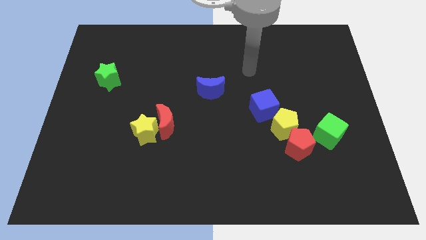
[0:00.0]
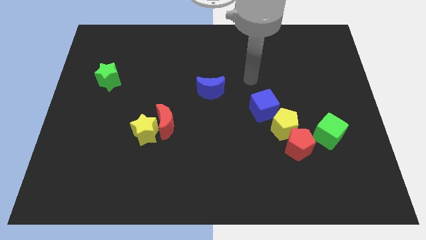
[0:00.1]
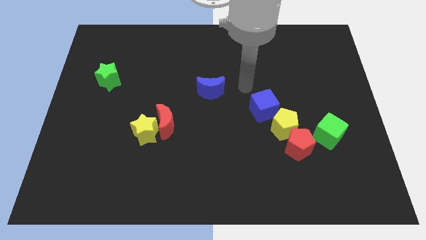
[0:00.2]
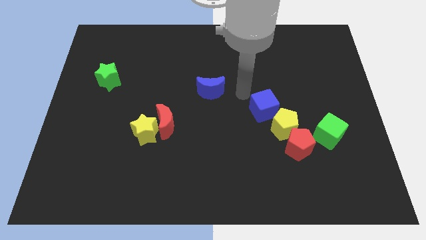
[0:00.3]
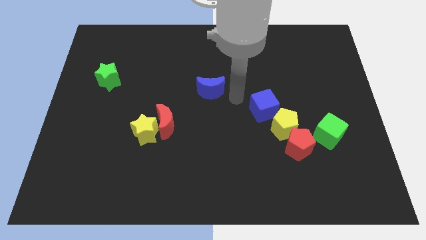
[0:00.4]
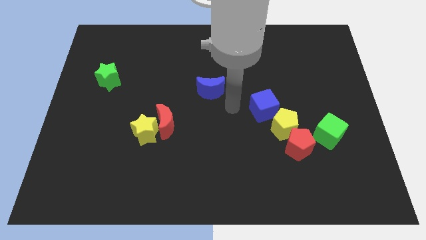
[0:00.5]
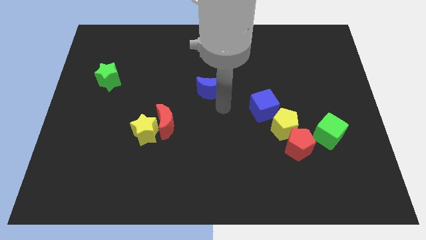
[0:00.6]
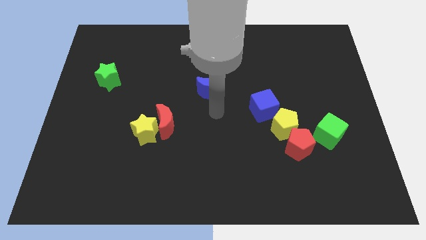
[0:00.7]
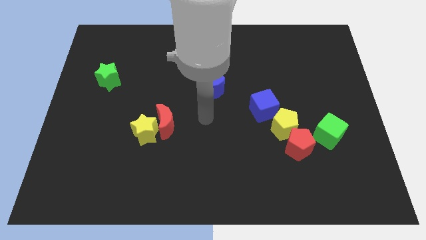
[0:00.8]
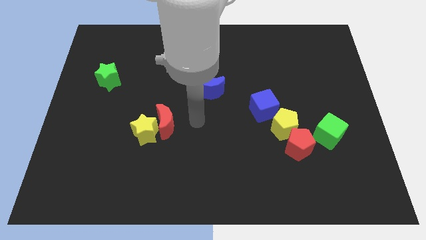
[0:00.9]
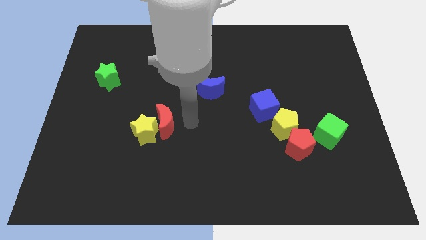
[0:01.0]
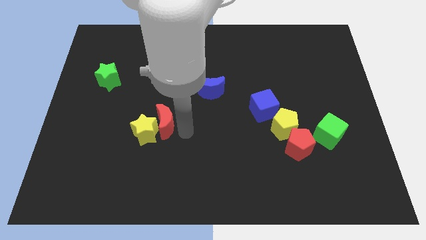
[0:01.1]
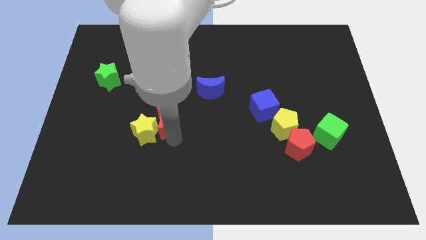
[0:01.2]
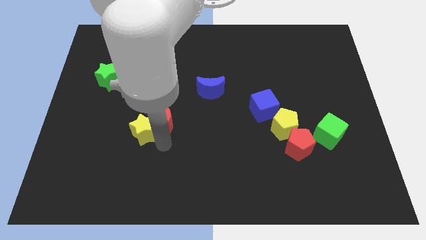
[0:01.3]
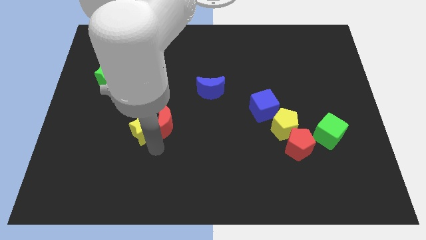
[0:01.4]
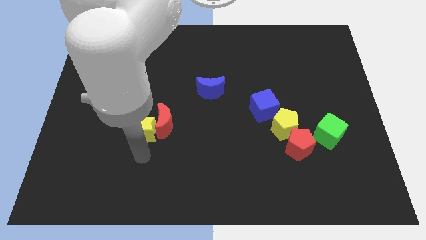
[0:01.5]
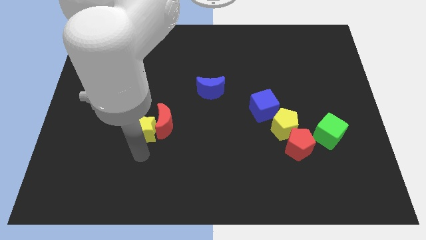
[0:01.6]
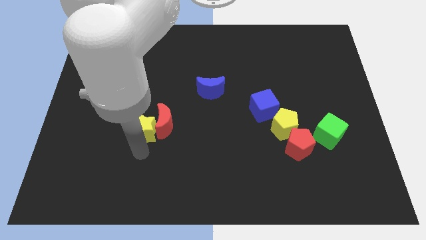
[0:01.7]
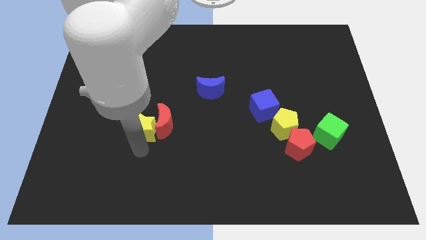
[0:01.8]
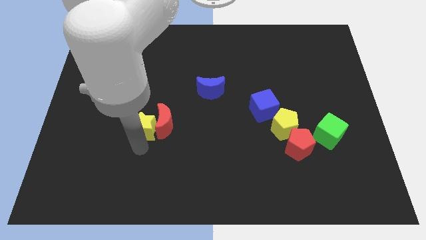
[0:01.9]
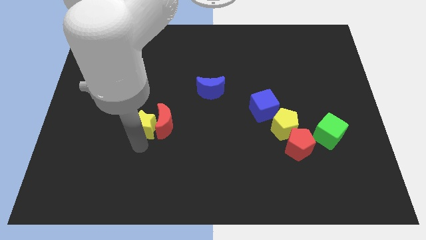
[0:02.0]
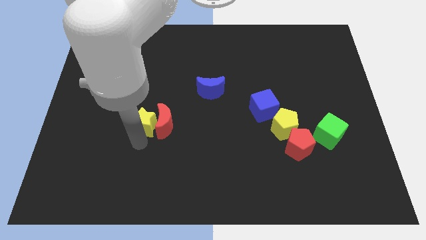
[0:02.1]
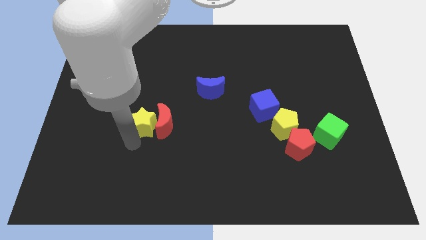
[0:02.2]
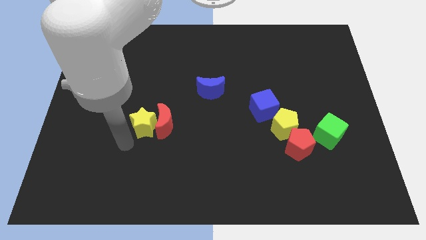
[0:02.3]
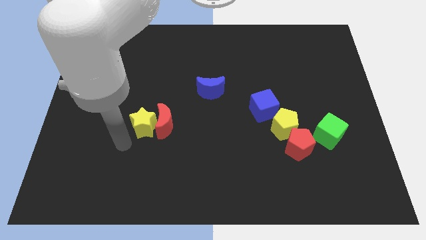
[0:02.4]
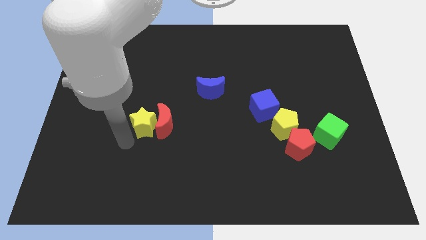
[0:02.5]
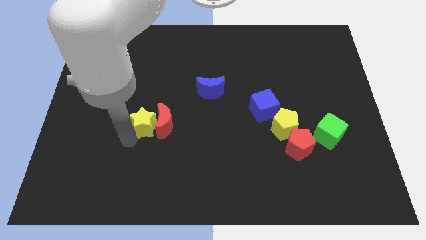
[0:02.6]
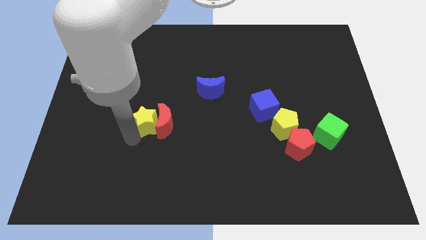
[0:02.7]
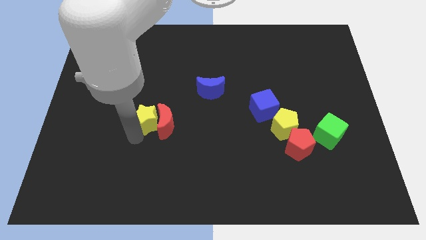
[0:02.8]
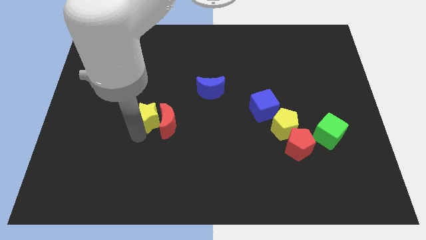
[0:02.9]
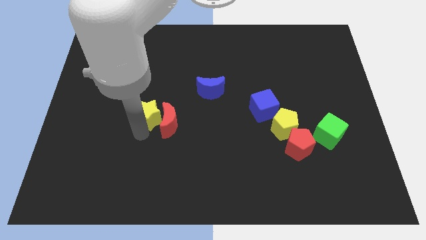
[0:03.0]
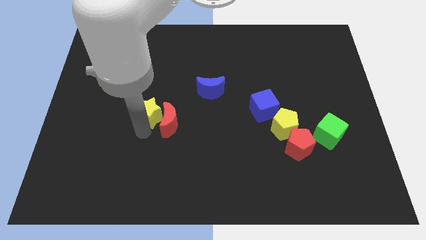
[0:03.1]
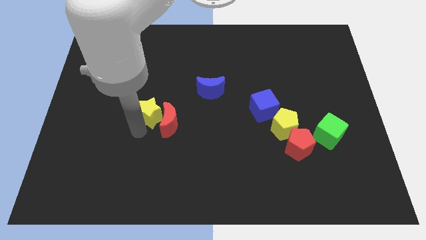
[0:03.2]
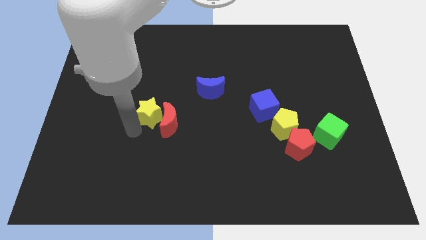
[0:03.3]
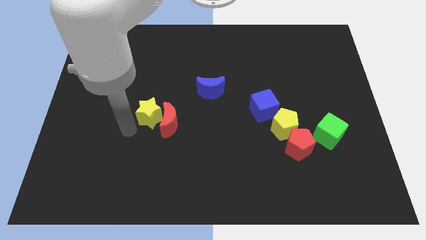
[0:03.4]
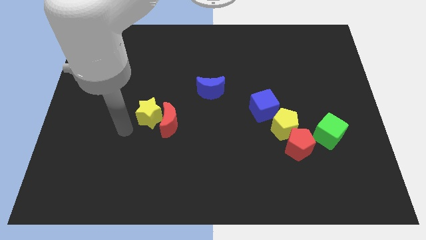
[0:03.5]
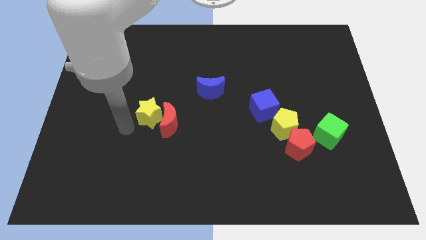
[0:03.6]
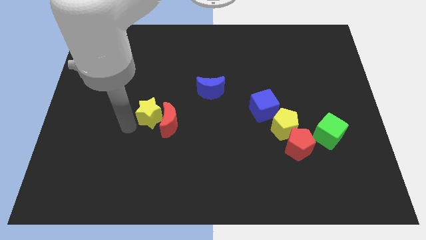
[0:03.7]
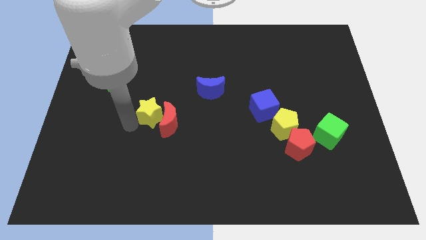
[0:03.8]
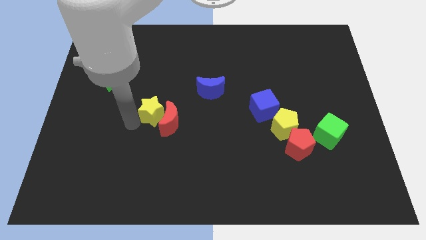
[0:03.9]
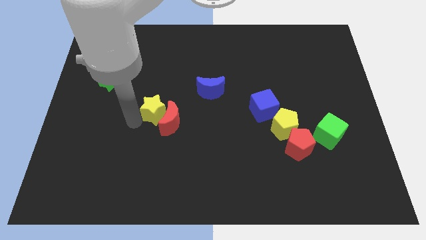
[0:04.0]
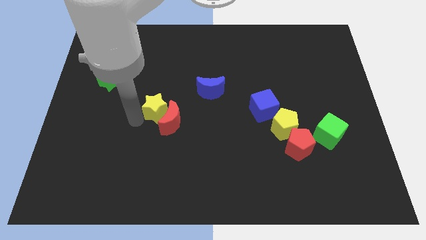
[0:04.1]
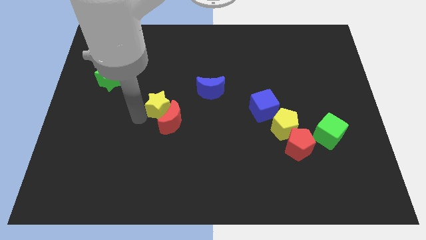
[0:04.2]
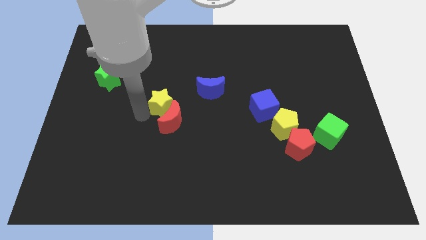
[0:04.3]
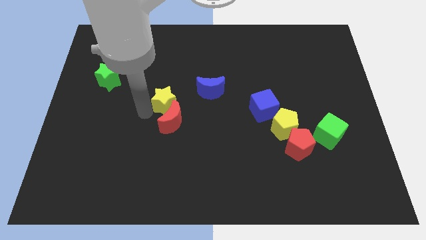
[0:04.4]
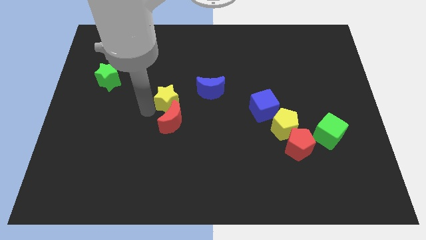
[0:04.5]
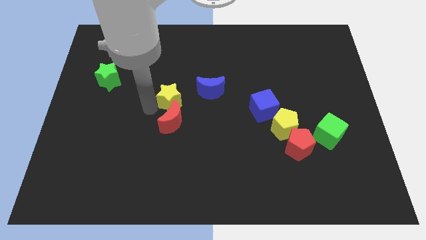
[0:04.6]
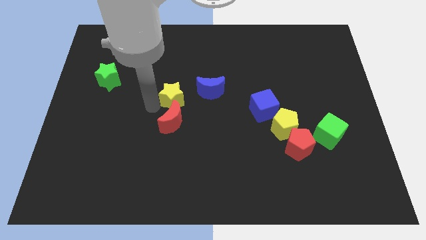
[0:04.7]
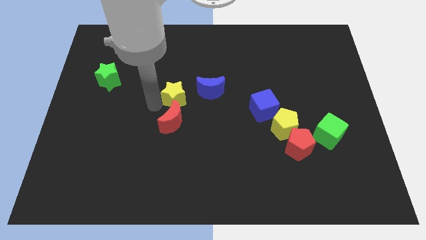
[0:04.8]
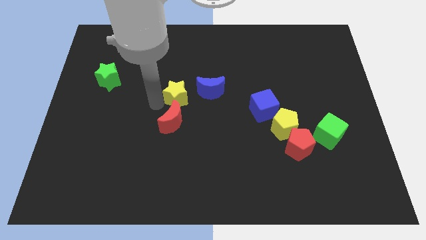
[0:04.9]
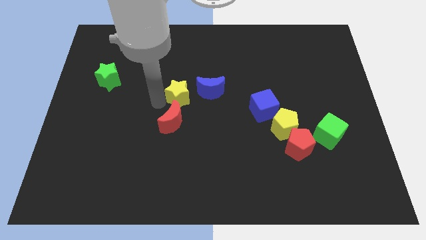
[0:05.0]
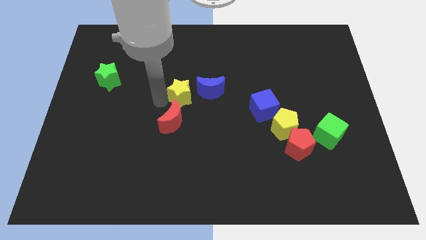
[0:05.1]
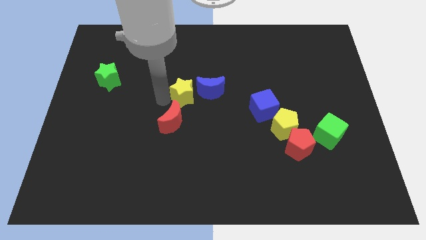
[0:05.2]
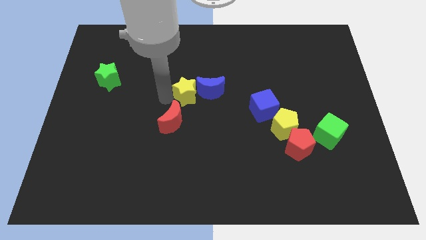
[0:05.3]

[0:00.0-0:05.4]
put the yellow star to the blue moon

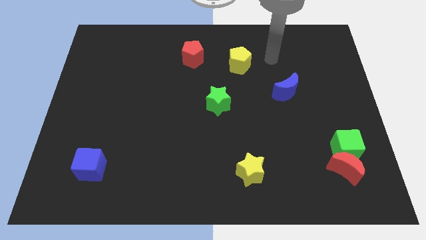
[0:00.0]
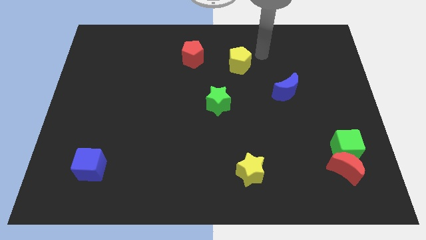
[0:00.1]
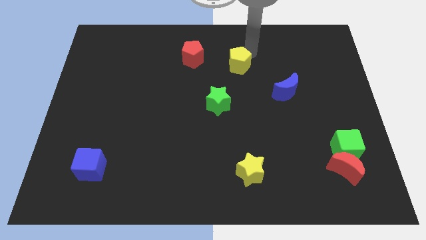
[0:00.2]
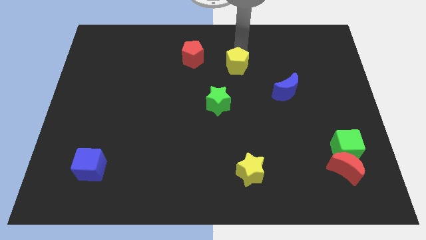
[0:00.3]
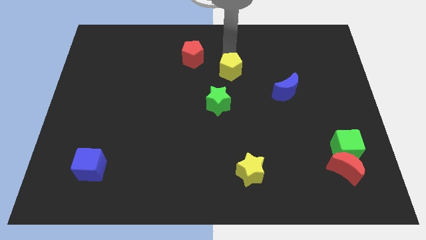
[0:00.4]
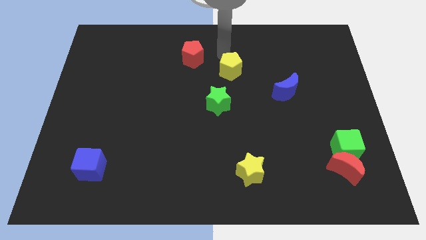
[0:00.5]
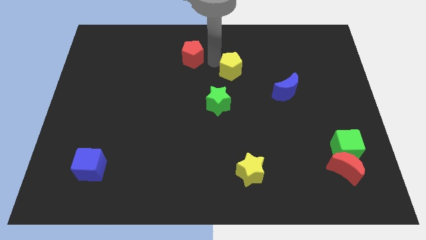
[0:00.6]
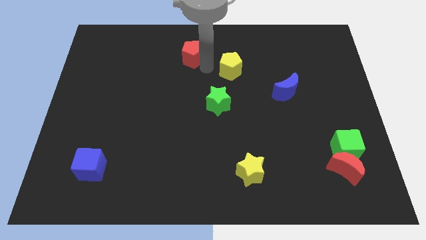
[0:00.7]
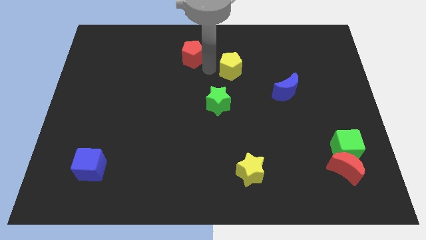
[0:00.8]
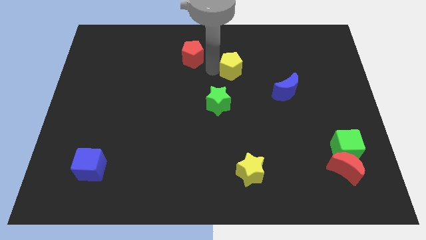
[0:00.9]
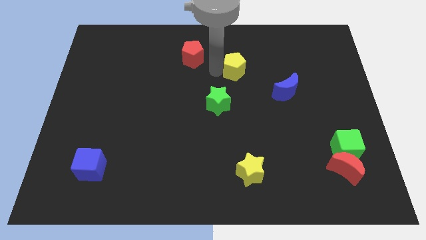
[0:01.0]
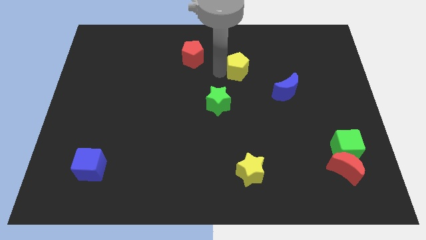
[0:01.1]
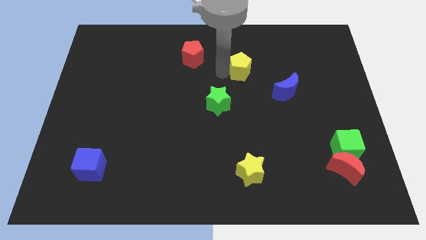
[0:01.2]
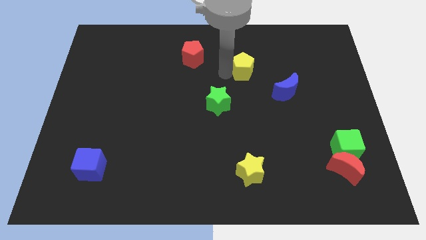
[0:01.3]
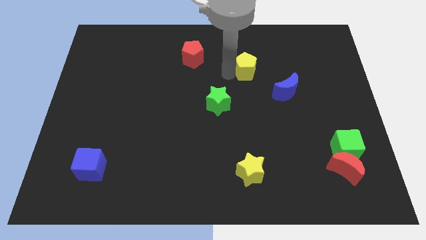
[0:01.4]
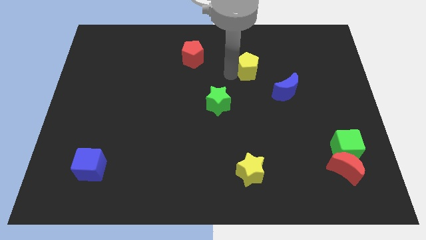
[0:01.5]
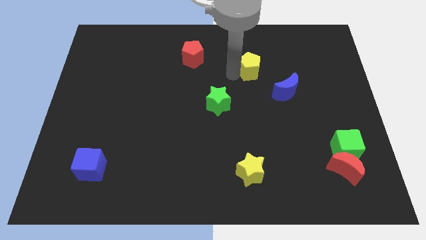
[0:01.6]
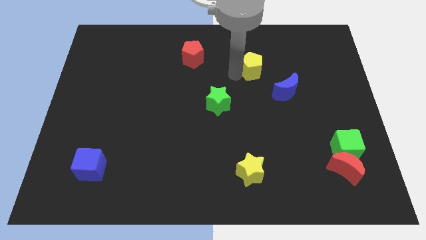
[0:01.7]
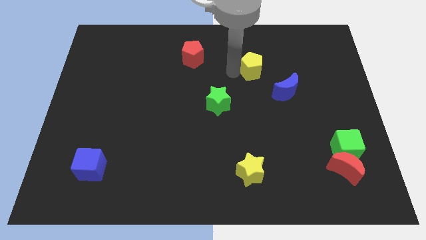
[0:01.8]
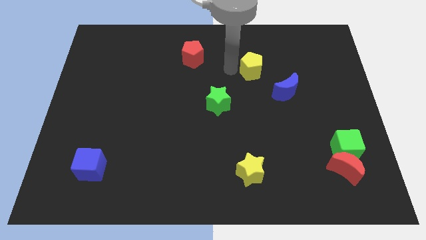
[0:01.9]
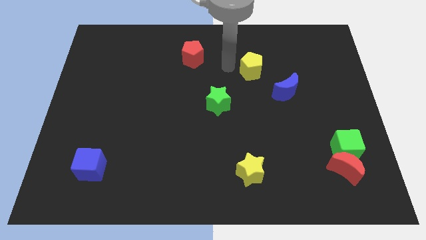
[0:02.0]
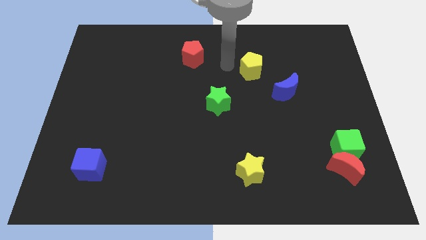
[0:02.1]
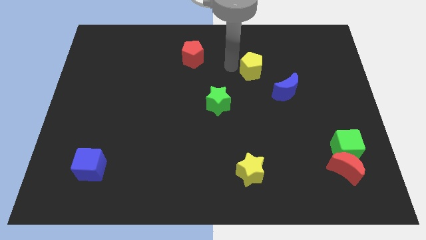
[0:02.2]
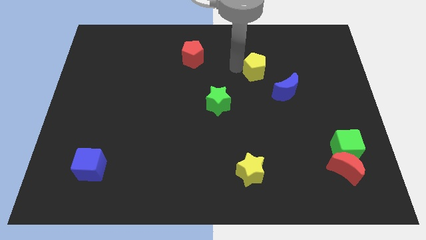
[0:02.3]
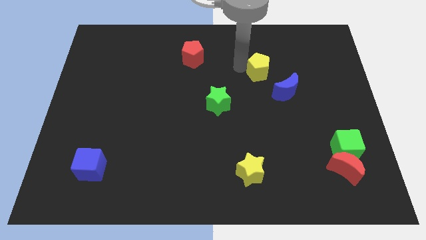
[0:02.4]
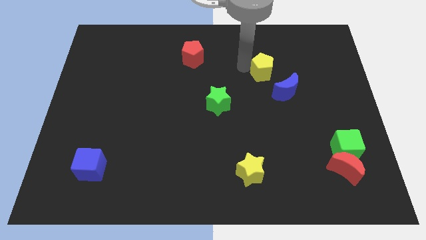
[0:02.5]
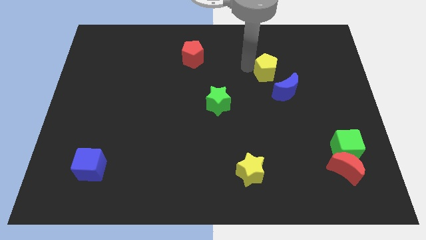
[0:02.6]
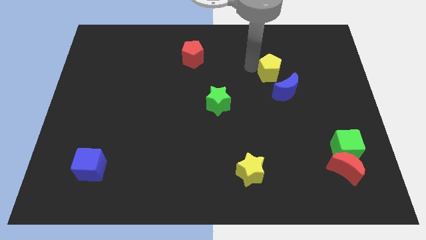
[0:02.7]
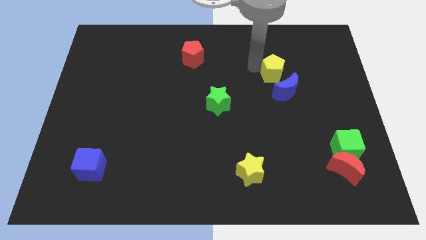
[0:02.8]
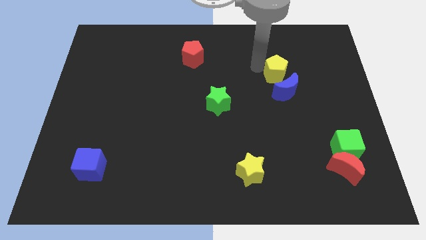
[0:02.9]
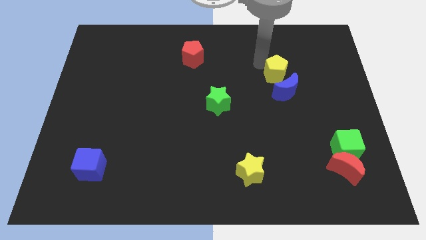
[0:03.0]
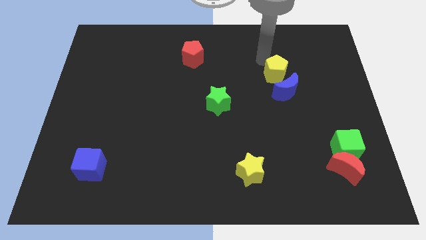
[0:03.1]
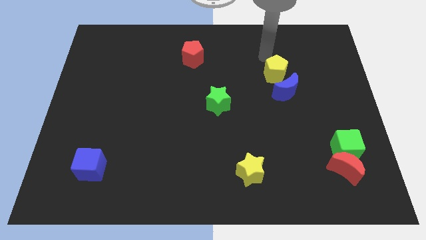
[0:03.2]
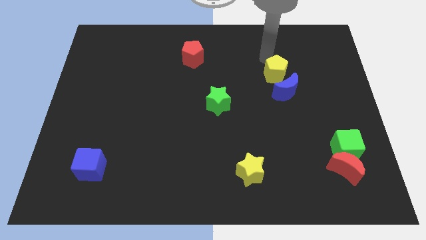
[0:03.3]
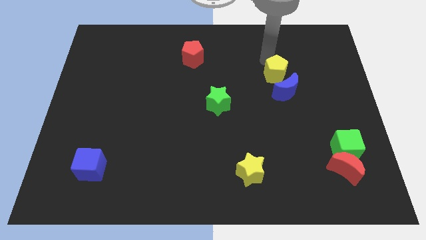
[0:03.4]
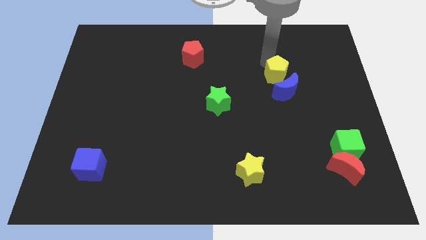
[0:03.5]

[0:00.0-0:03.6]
move the yellow pentagon to the blue moon
